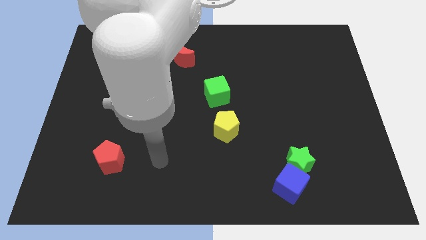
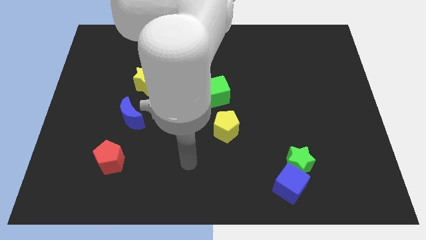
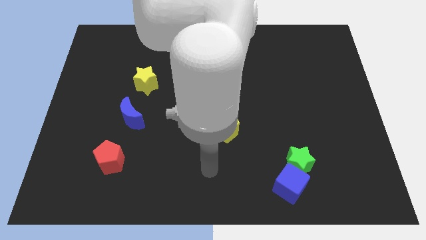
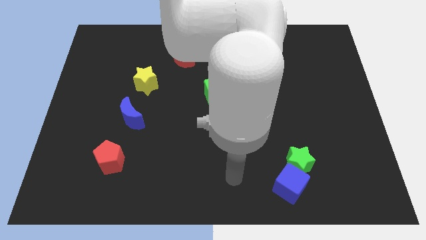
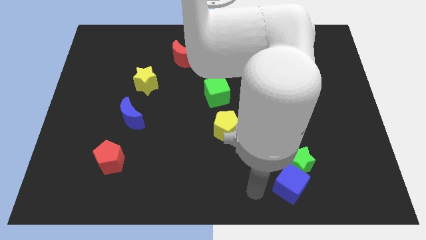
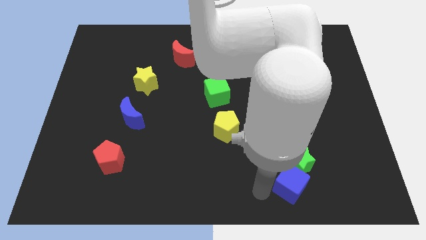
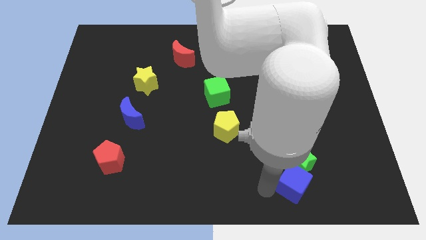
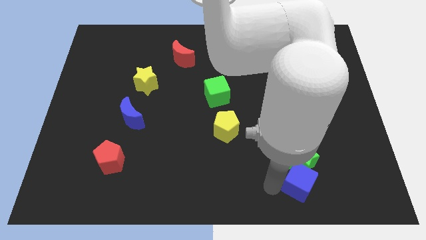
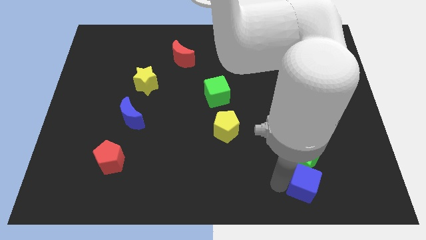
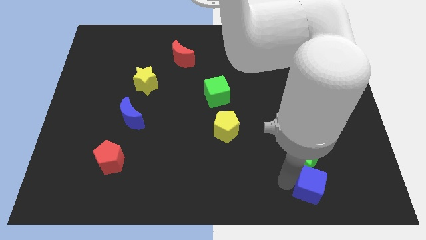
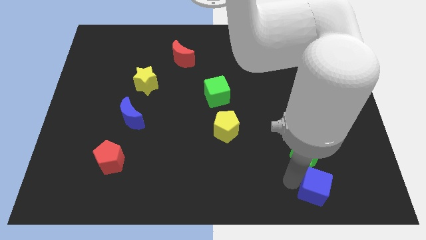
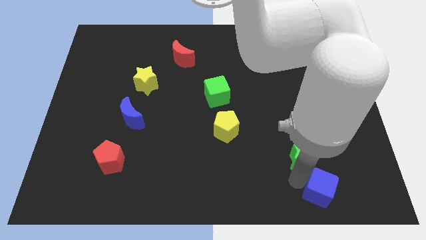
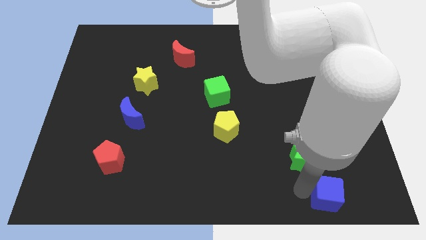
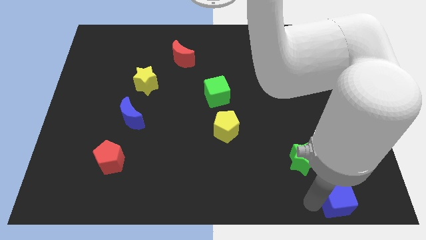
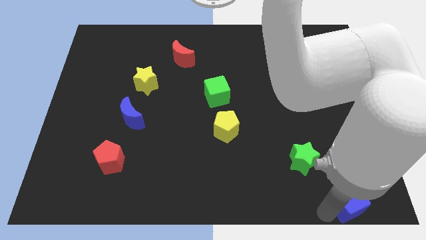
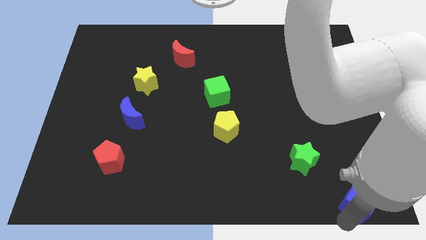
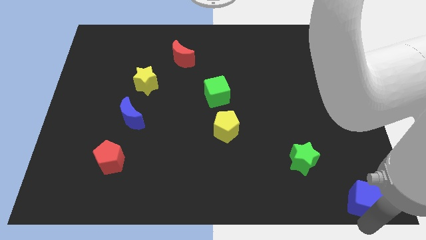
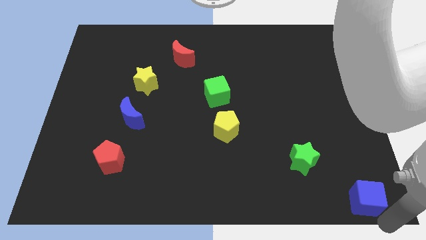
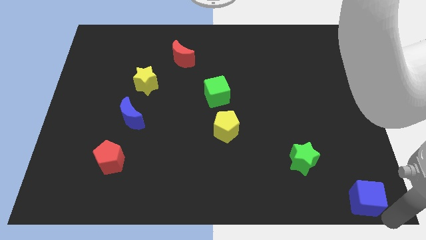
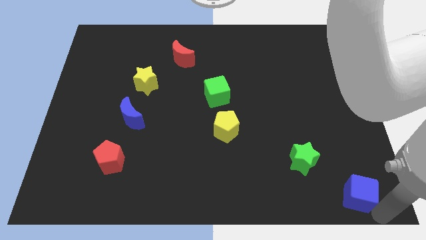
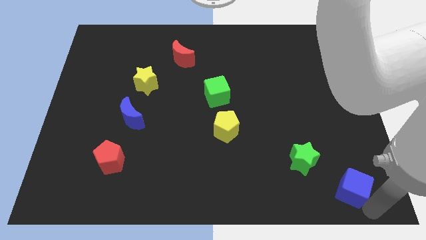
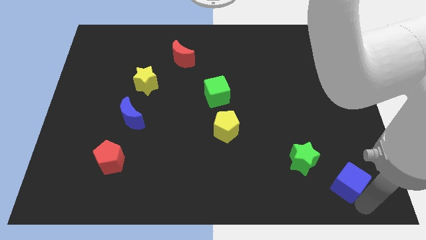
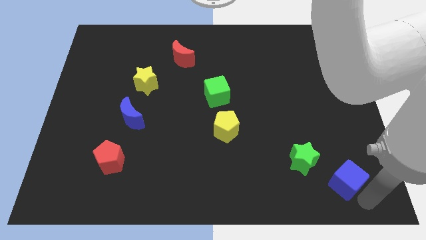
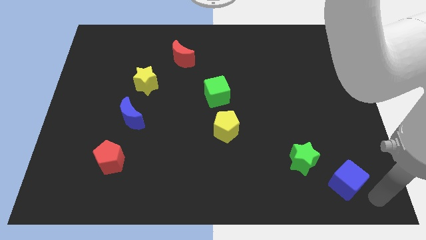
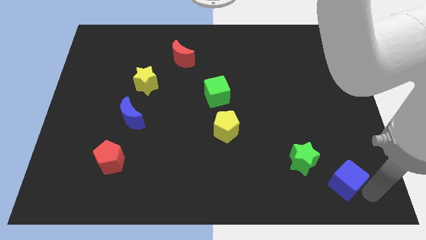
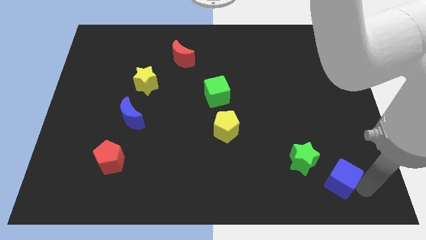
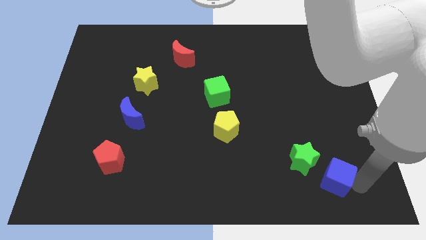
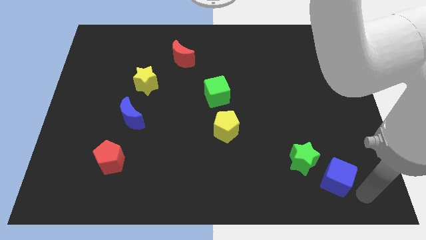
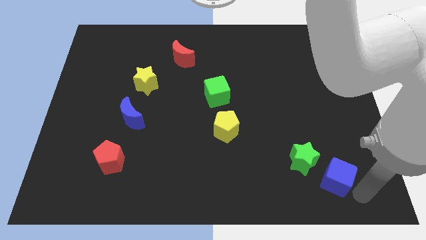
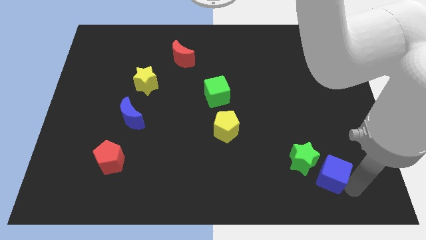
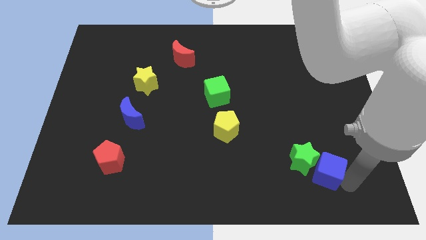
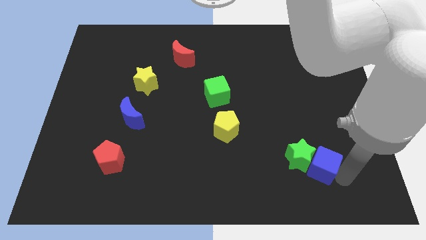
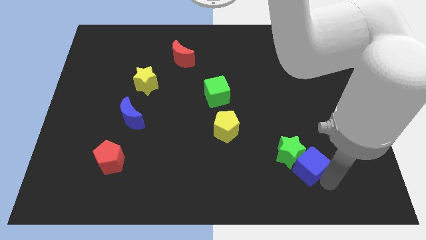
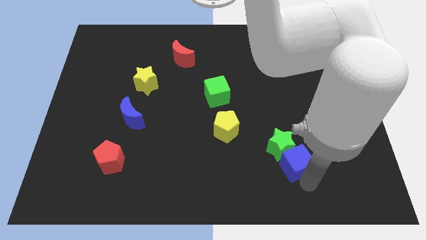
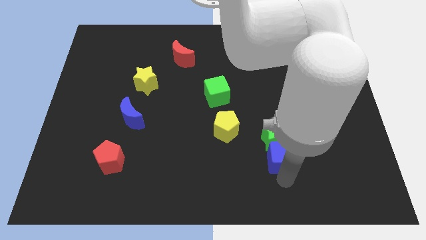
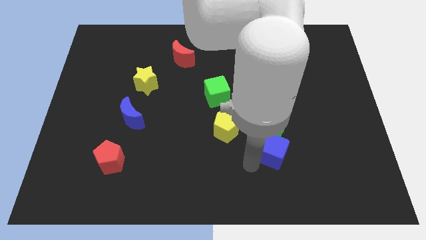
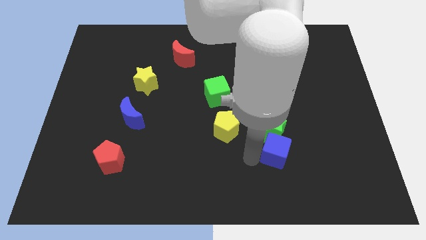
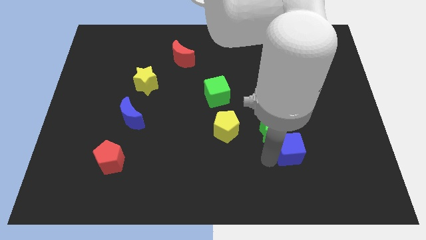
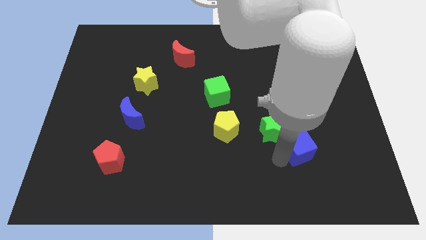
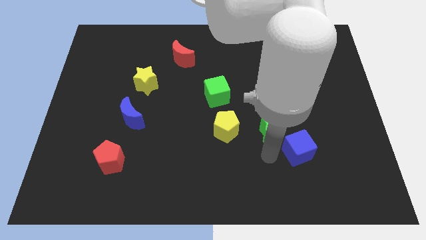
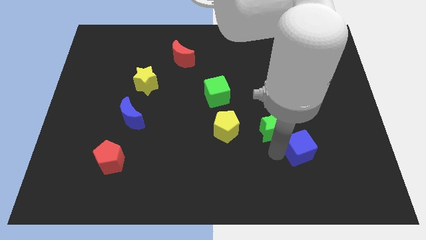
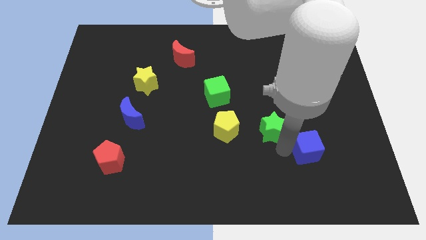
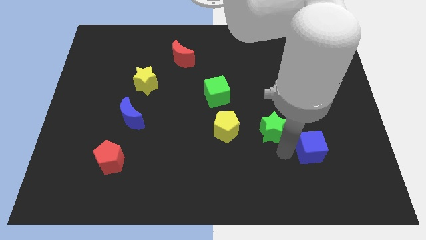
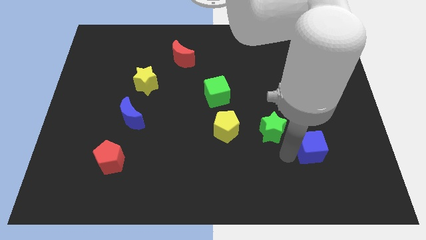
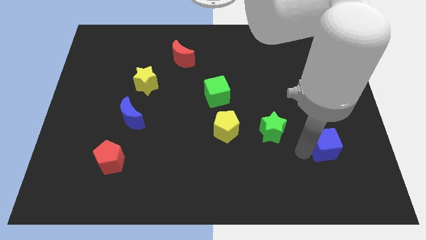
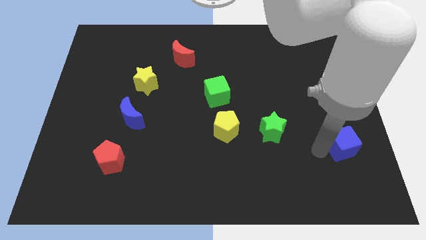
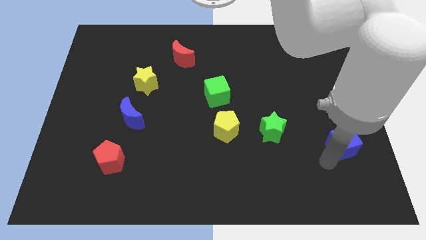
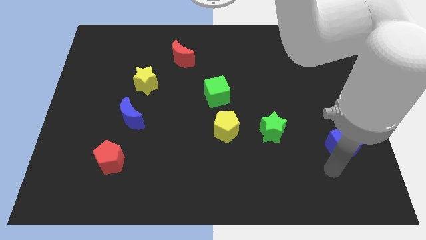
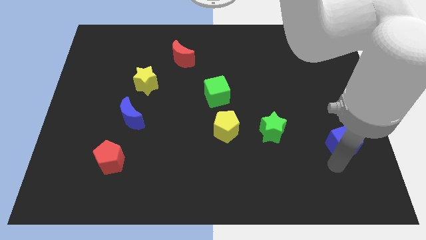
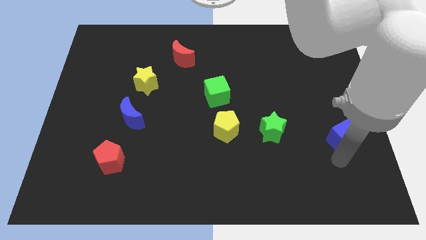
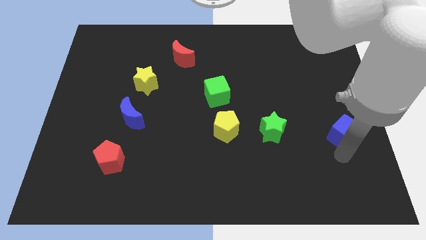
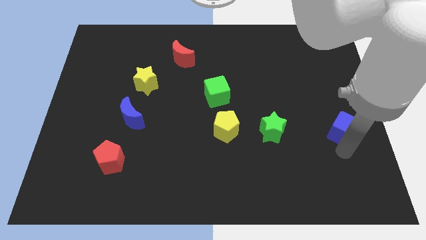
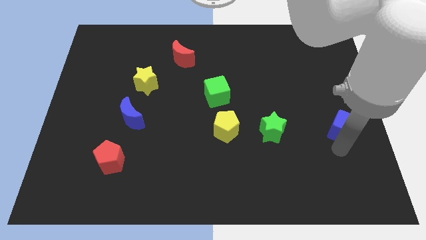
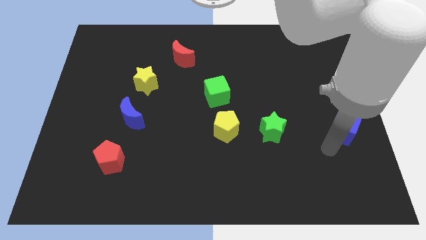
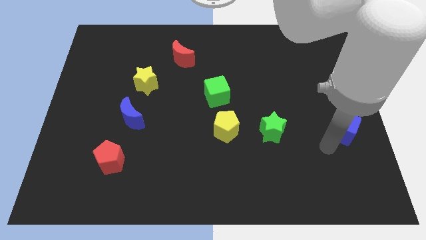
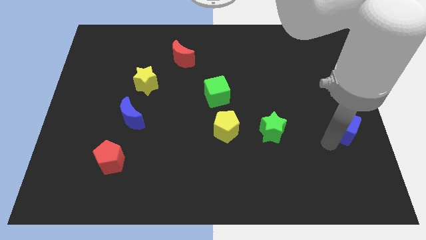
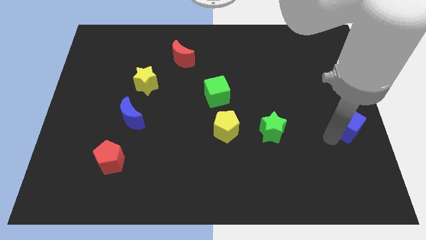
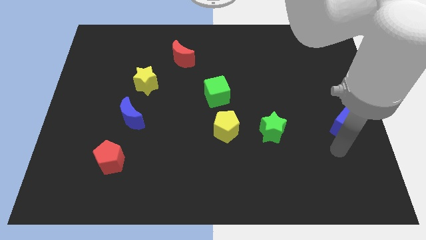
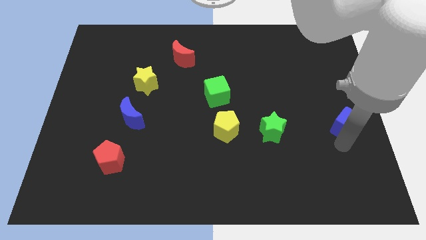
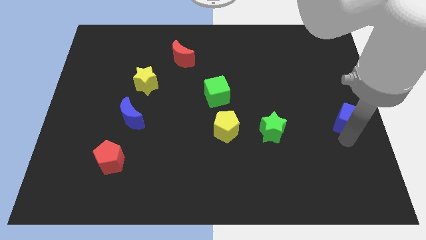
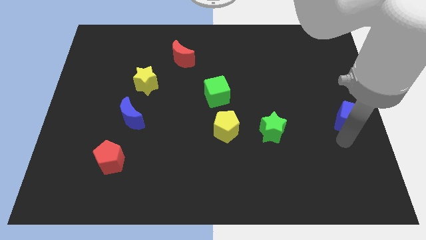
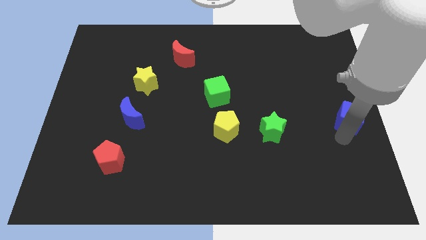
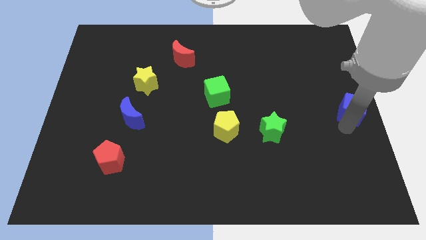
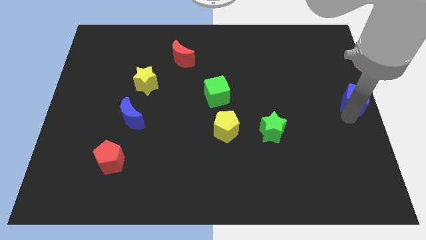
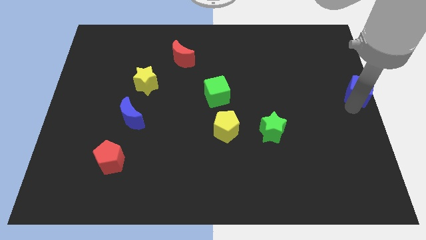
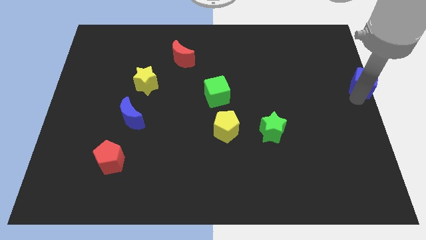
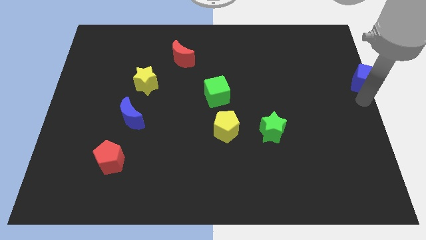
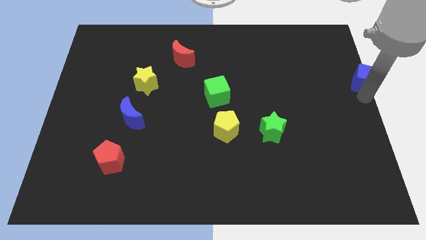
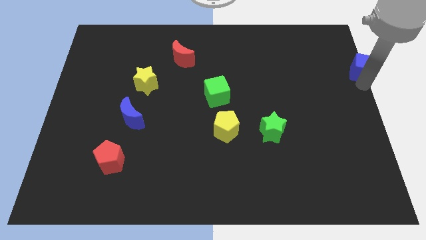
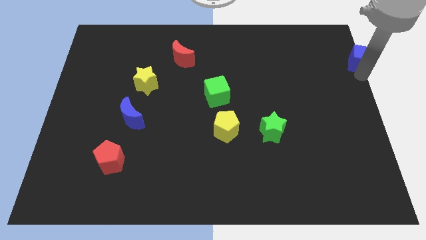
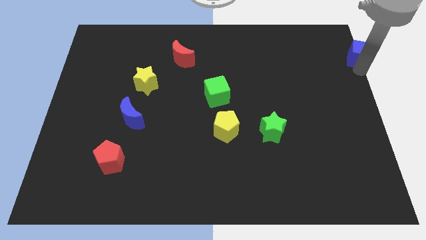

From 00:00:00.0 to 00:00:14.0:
slide the blue cube to the top right of the board
